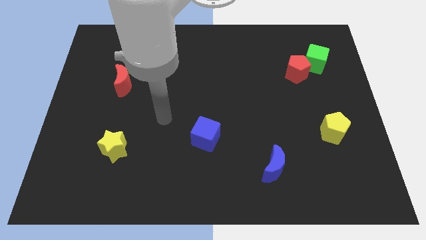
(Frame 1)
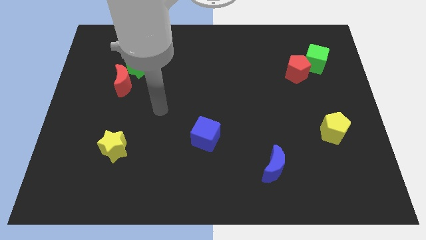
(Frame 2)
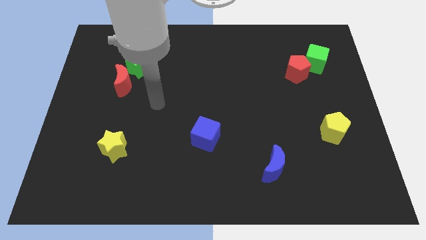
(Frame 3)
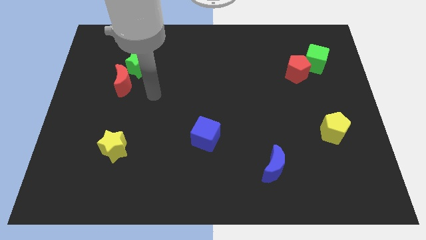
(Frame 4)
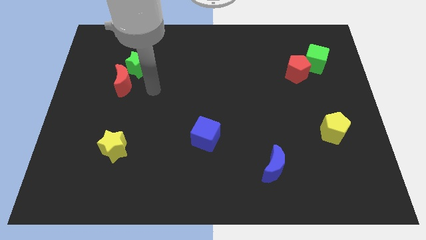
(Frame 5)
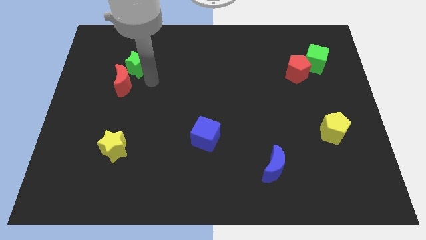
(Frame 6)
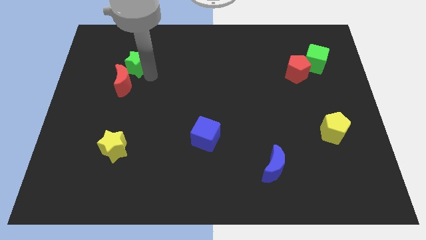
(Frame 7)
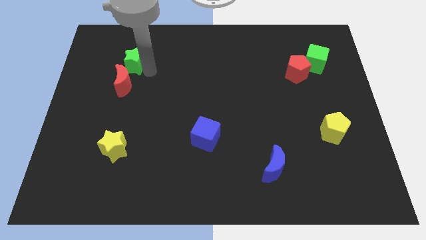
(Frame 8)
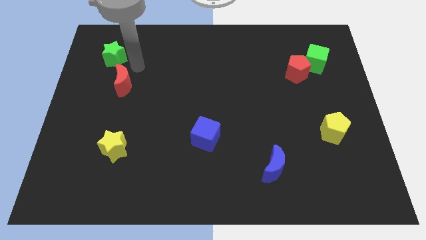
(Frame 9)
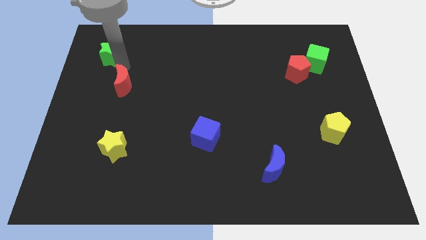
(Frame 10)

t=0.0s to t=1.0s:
pull the red moon apart from the green star

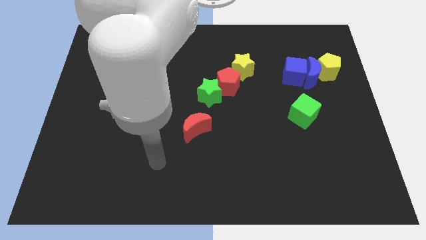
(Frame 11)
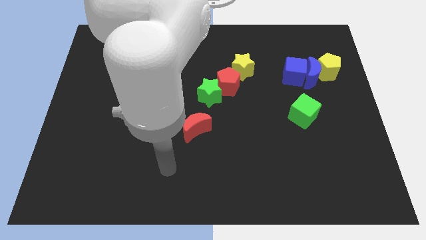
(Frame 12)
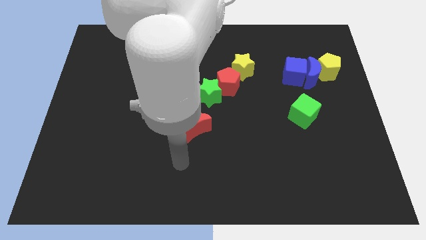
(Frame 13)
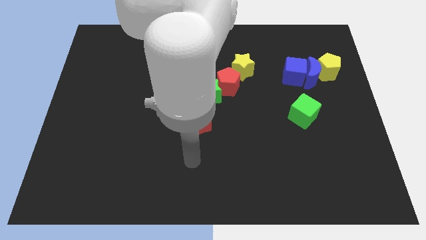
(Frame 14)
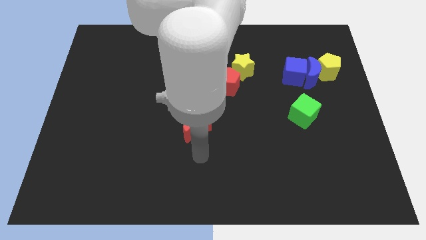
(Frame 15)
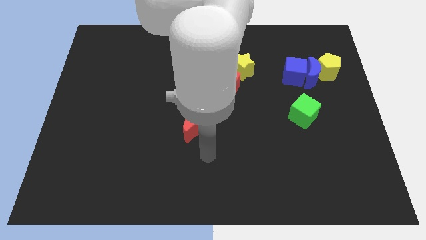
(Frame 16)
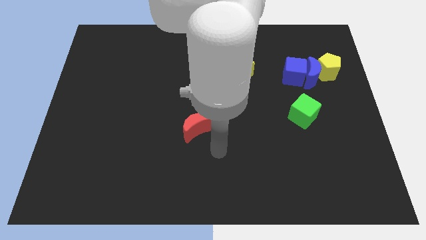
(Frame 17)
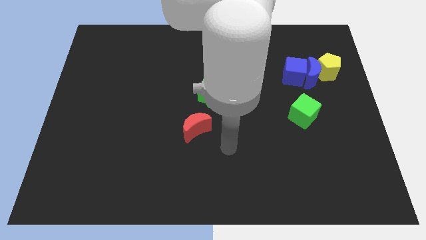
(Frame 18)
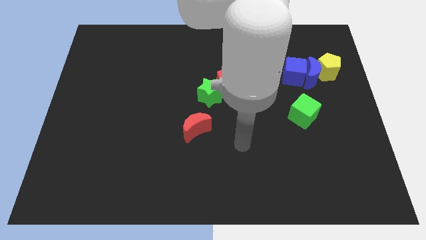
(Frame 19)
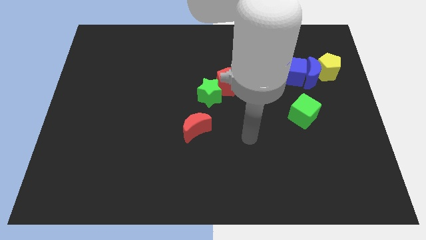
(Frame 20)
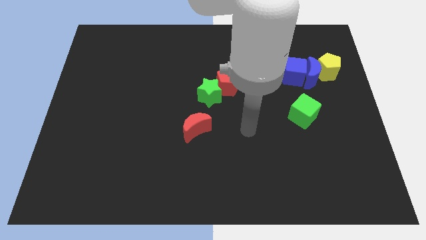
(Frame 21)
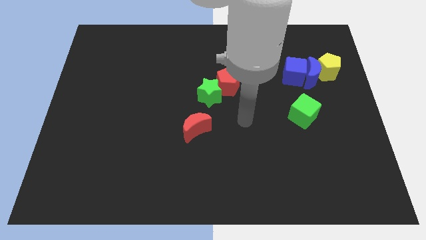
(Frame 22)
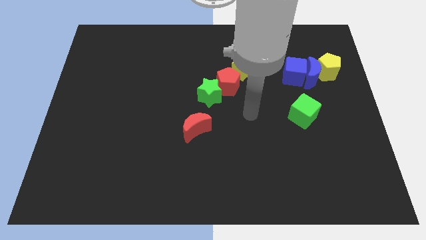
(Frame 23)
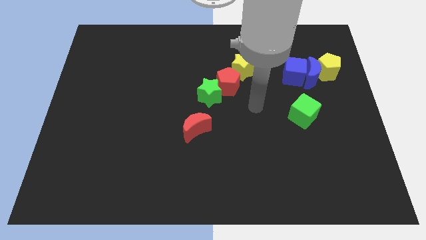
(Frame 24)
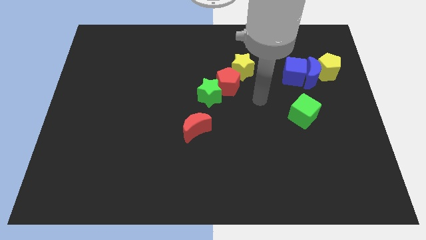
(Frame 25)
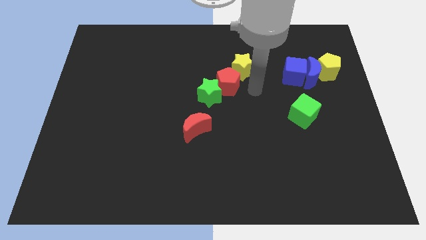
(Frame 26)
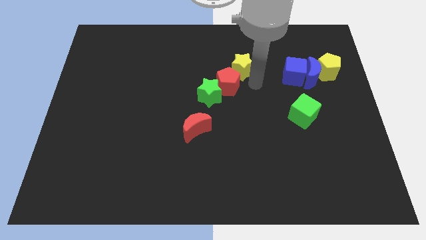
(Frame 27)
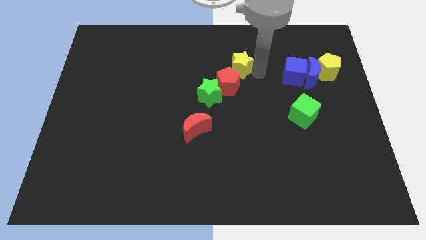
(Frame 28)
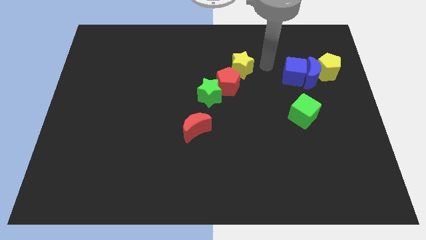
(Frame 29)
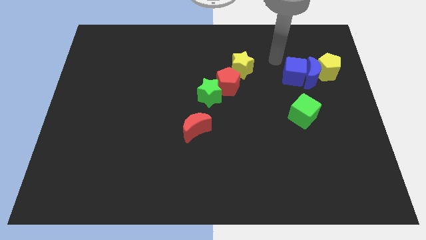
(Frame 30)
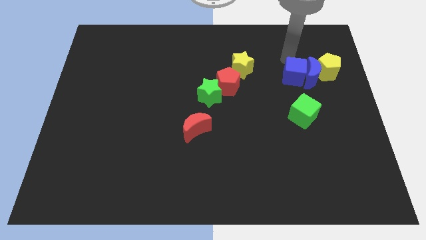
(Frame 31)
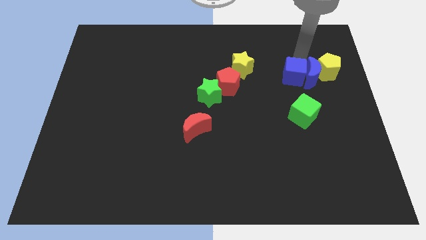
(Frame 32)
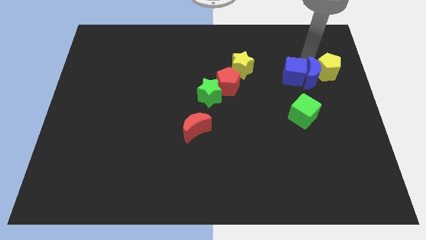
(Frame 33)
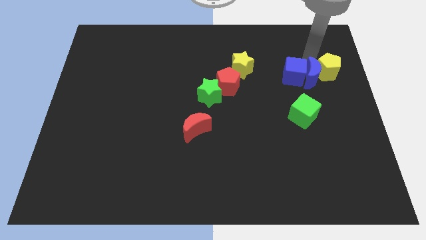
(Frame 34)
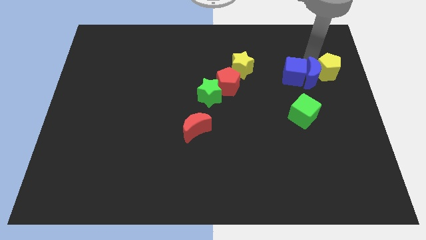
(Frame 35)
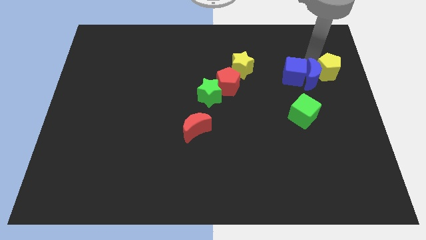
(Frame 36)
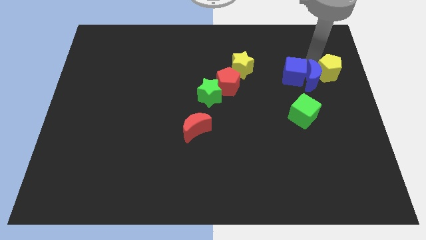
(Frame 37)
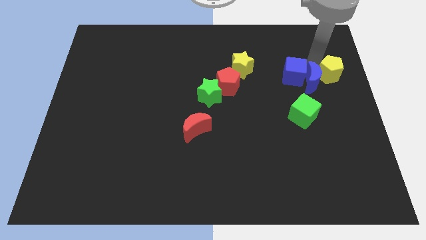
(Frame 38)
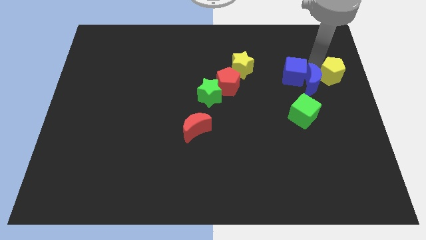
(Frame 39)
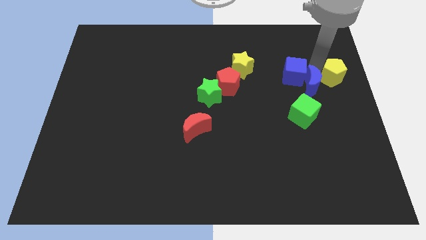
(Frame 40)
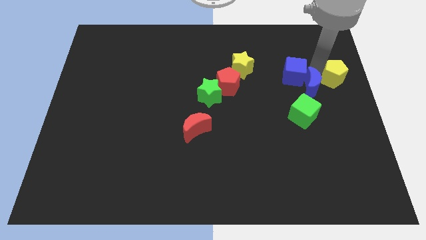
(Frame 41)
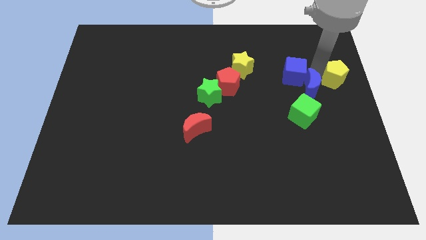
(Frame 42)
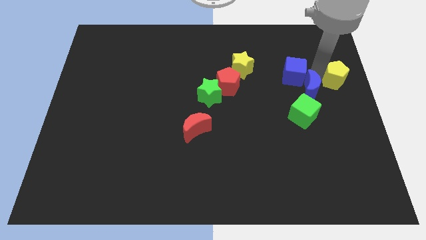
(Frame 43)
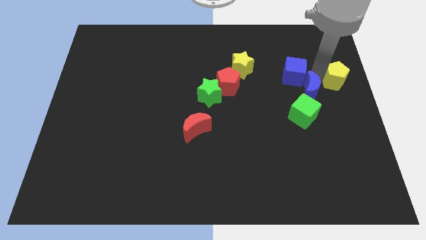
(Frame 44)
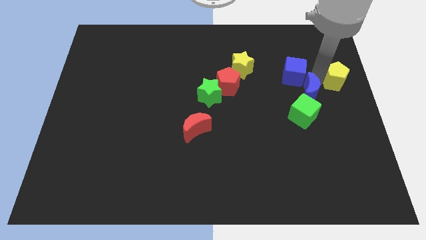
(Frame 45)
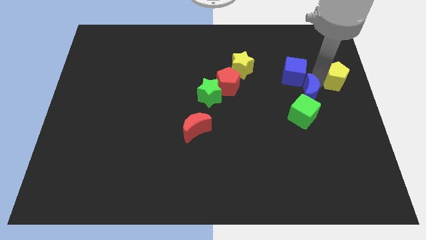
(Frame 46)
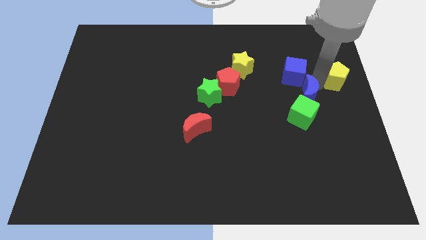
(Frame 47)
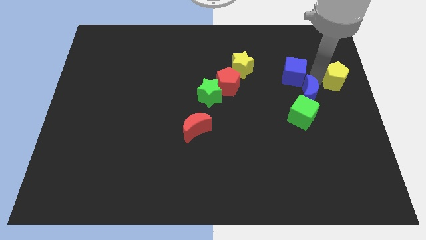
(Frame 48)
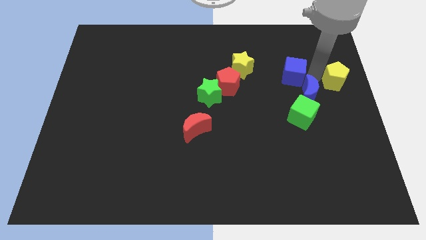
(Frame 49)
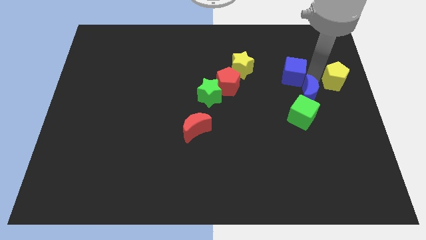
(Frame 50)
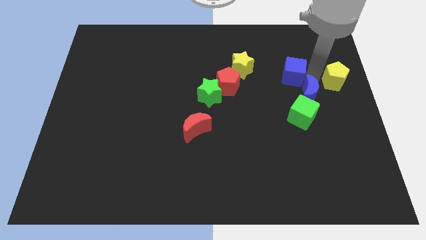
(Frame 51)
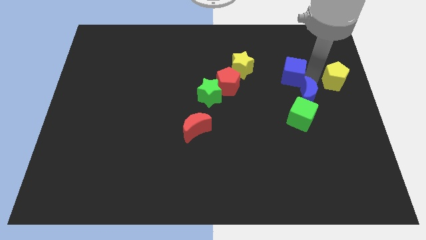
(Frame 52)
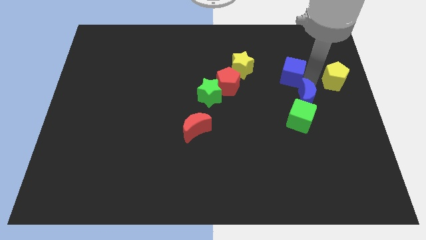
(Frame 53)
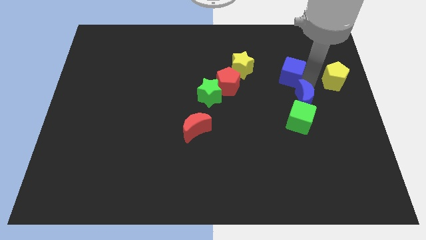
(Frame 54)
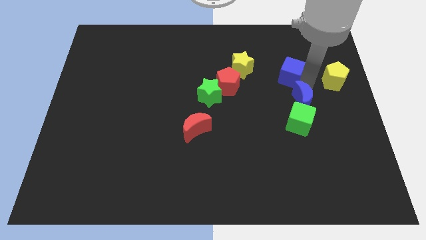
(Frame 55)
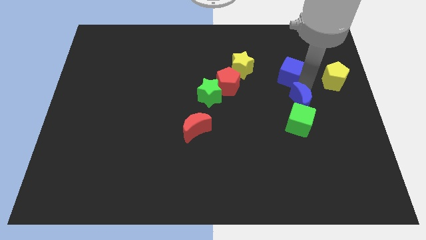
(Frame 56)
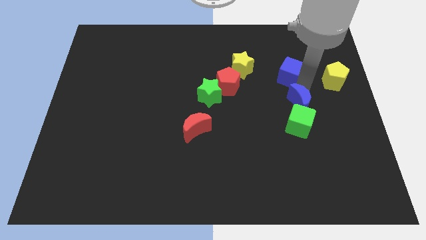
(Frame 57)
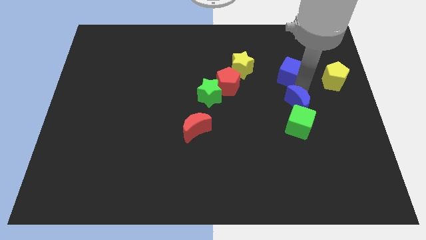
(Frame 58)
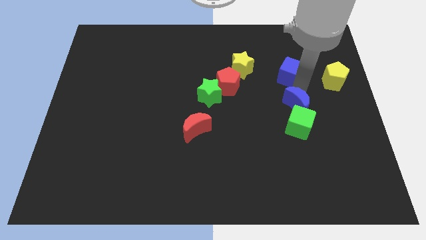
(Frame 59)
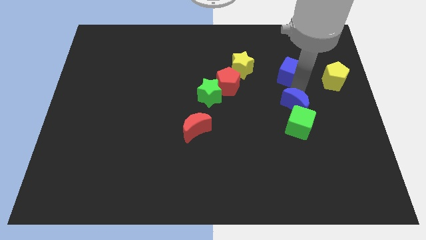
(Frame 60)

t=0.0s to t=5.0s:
separate the blue moon from the blue cube and yellow pentagon

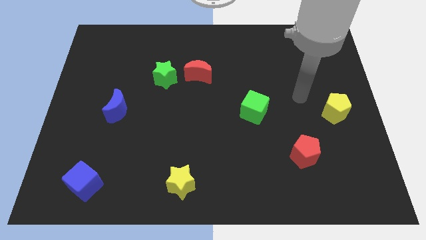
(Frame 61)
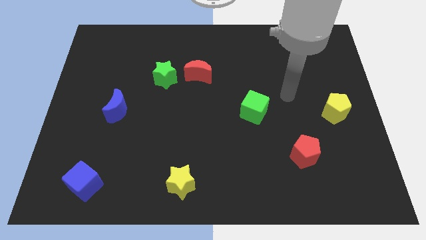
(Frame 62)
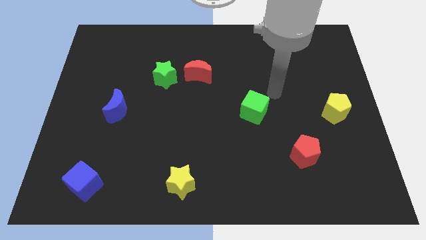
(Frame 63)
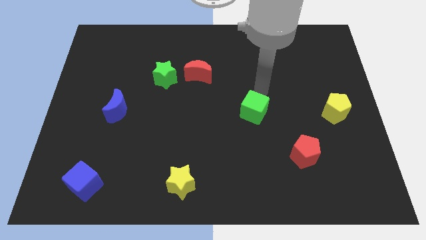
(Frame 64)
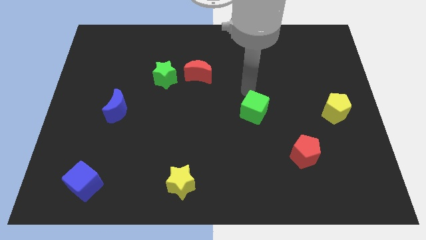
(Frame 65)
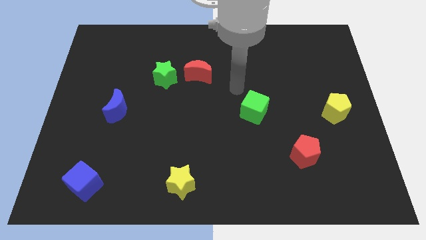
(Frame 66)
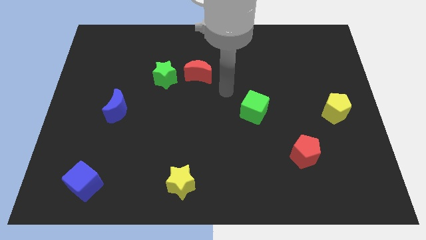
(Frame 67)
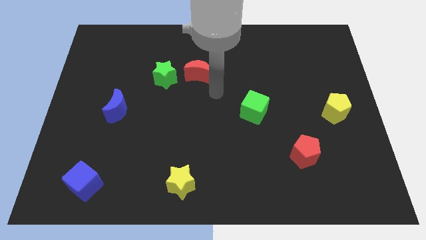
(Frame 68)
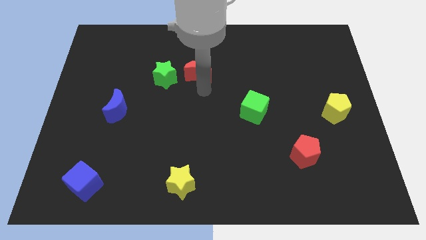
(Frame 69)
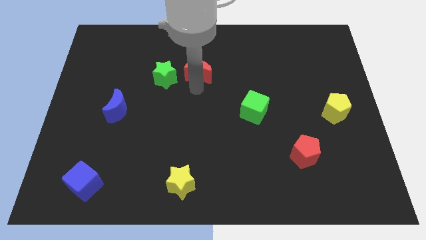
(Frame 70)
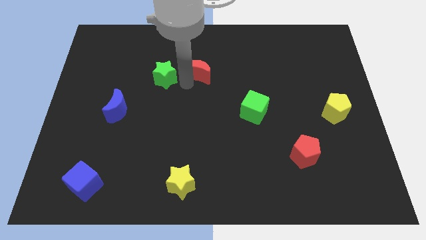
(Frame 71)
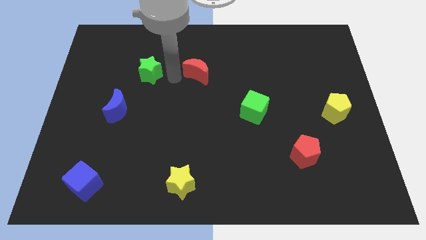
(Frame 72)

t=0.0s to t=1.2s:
separate the red moon from the green star

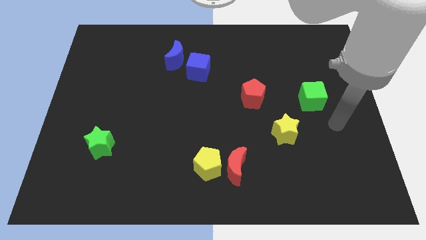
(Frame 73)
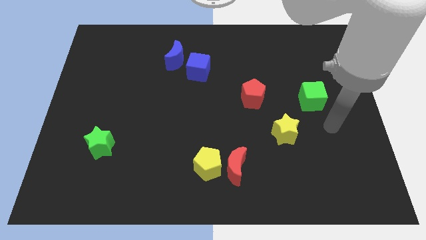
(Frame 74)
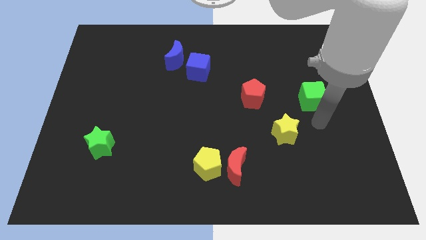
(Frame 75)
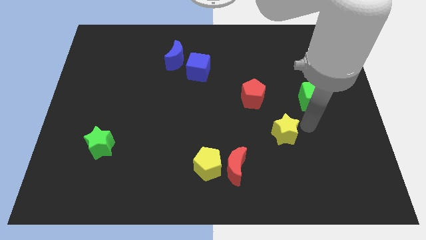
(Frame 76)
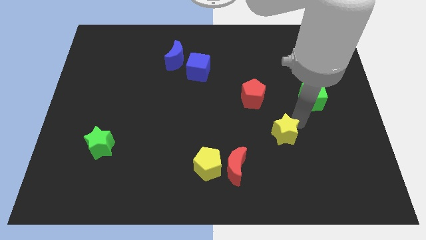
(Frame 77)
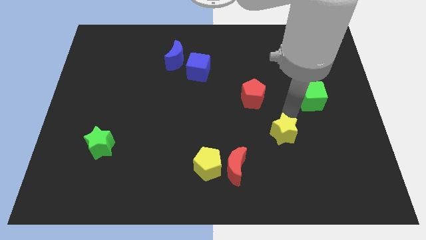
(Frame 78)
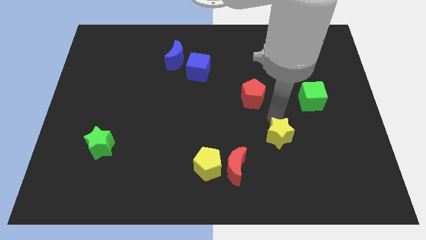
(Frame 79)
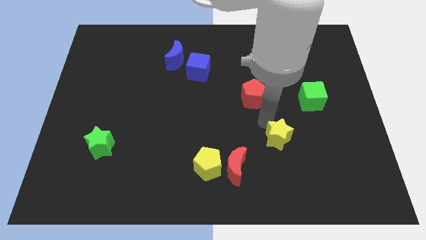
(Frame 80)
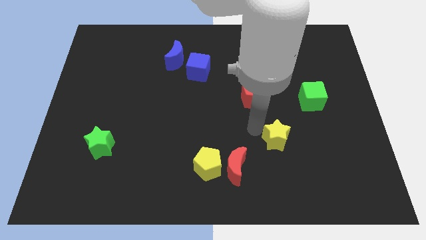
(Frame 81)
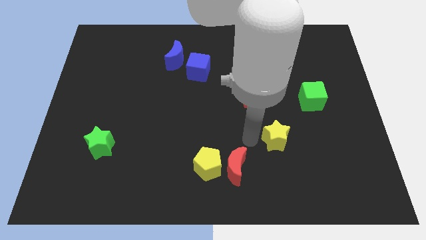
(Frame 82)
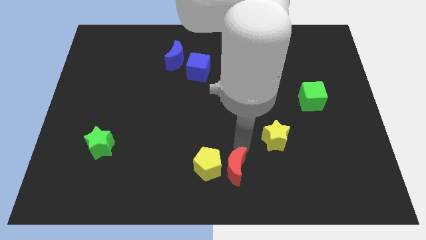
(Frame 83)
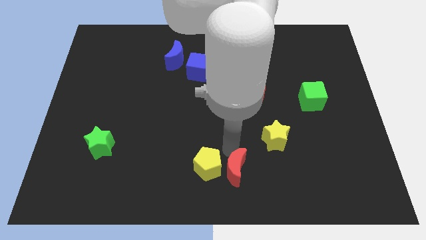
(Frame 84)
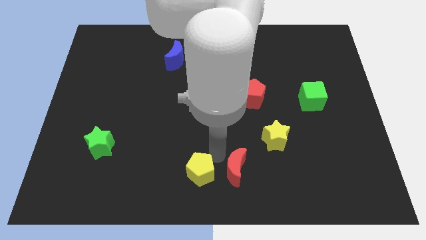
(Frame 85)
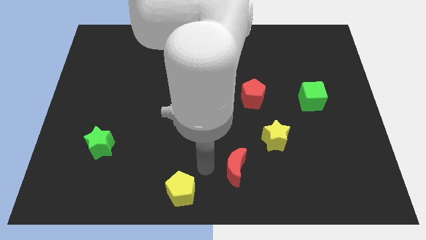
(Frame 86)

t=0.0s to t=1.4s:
move the red moon away from the yellow pentagon

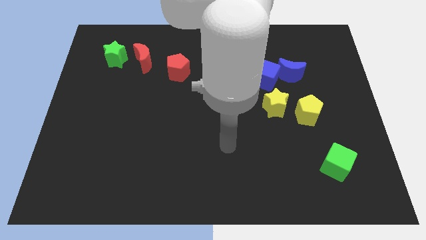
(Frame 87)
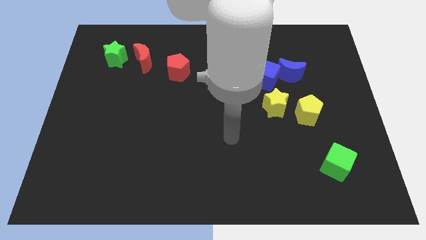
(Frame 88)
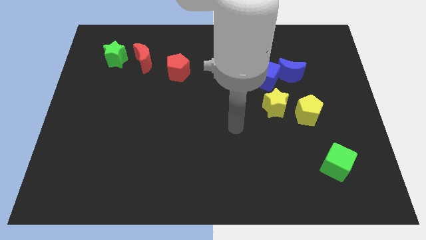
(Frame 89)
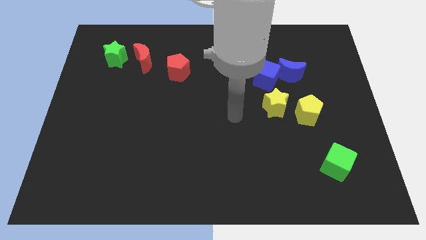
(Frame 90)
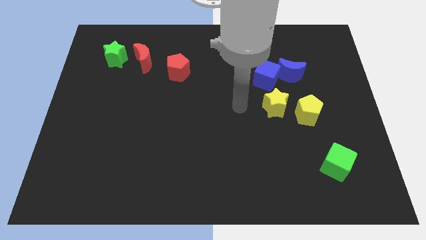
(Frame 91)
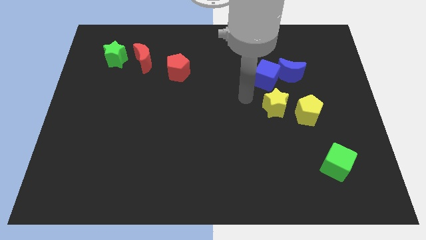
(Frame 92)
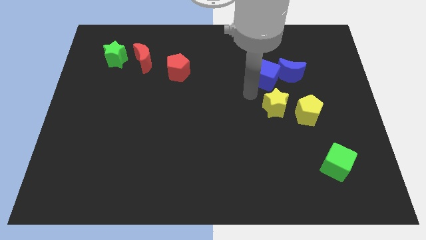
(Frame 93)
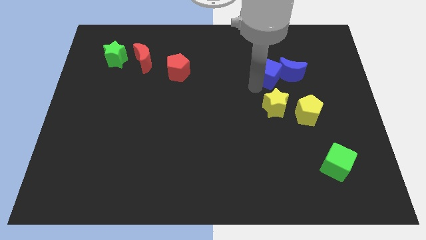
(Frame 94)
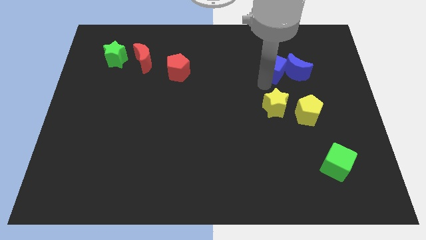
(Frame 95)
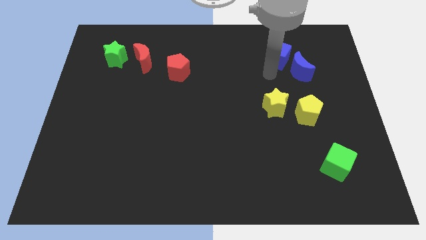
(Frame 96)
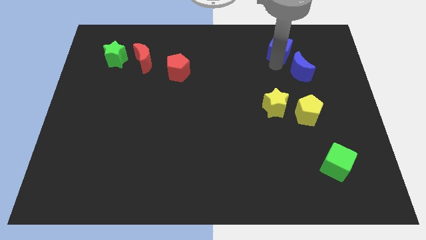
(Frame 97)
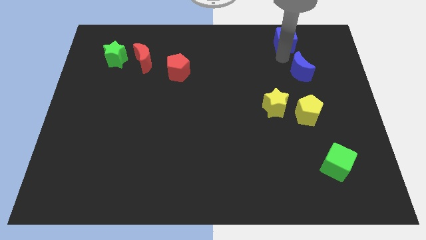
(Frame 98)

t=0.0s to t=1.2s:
move the blue moon away from the blue cube
